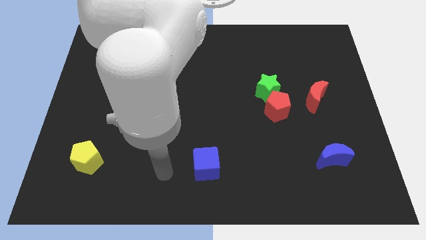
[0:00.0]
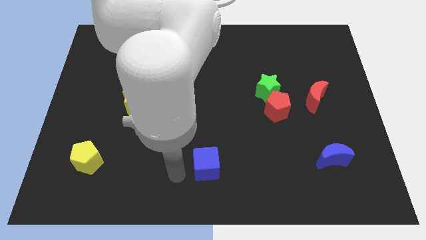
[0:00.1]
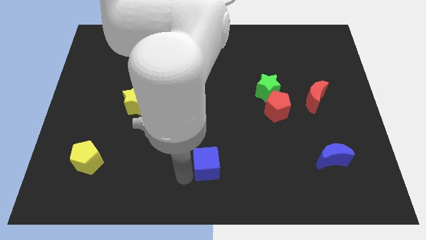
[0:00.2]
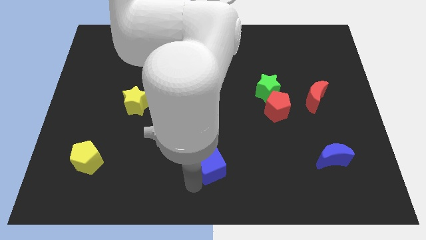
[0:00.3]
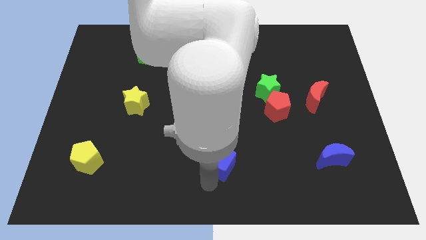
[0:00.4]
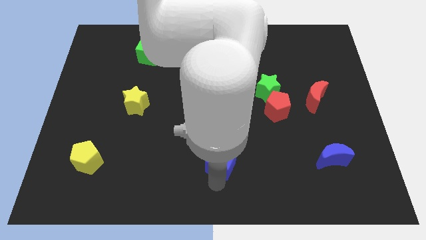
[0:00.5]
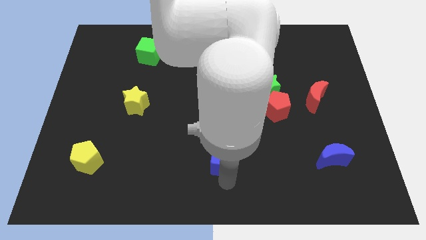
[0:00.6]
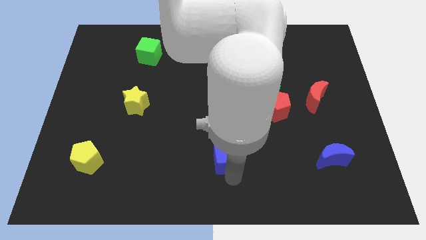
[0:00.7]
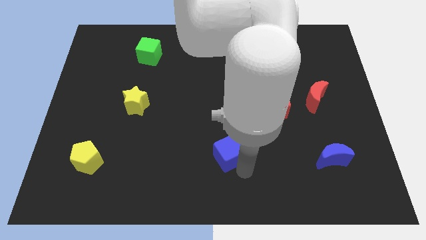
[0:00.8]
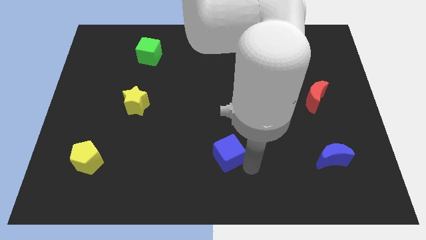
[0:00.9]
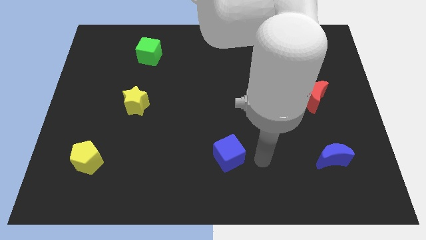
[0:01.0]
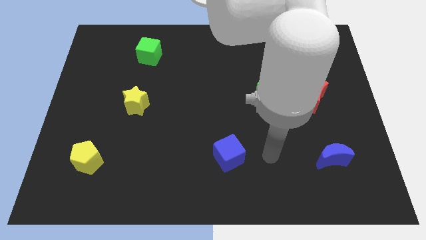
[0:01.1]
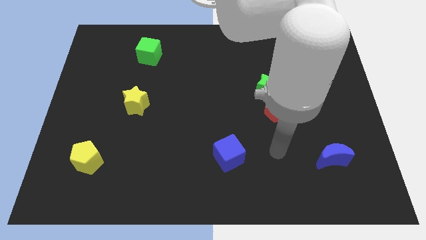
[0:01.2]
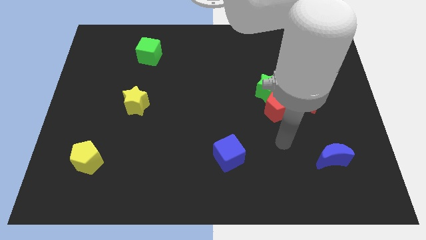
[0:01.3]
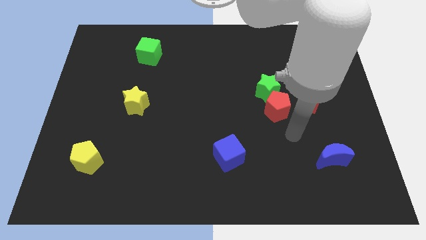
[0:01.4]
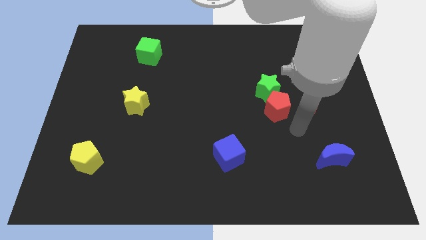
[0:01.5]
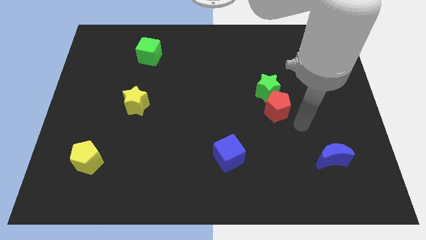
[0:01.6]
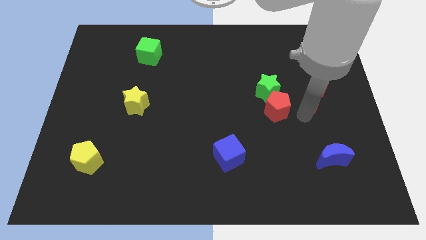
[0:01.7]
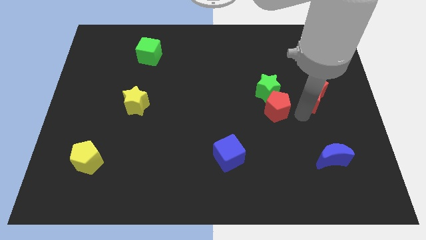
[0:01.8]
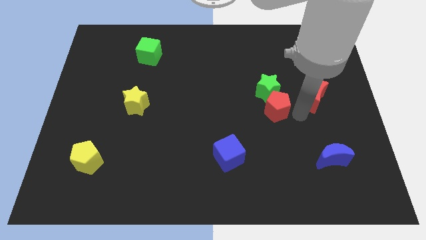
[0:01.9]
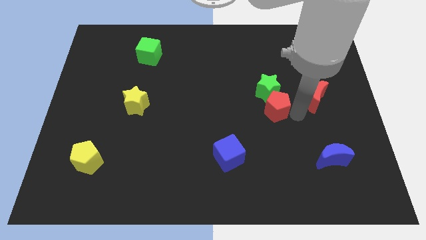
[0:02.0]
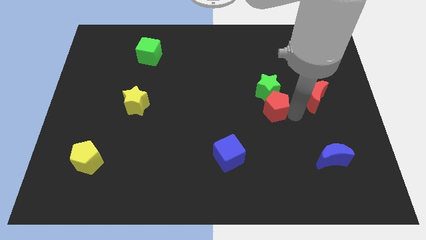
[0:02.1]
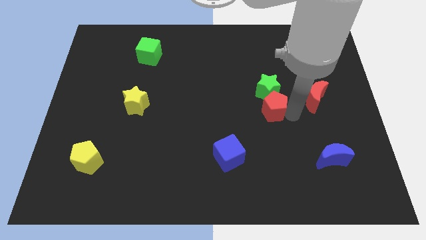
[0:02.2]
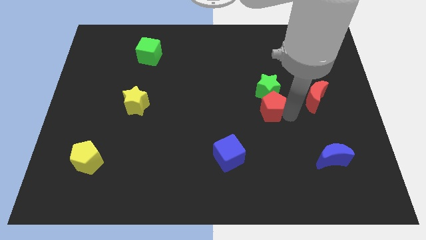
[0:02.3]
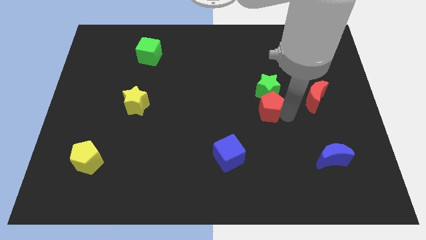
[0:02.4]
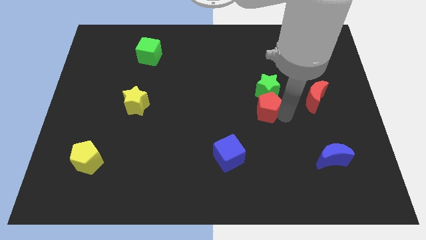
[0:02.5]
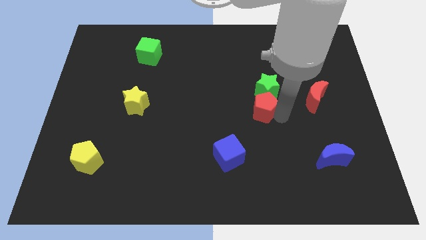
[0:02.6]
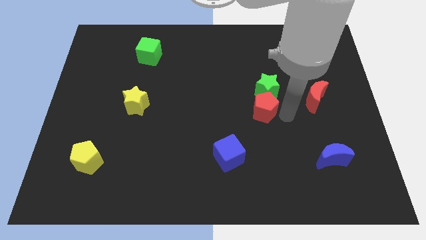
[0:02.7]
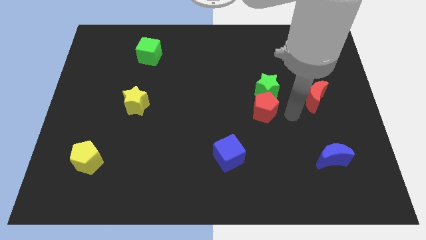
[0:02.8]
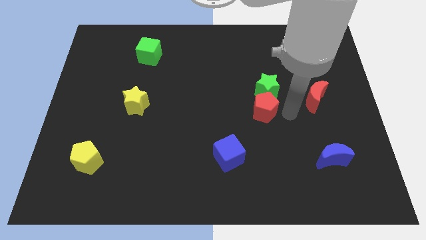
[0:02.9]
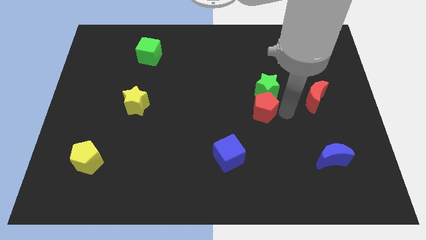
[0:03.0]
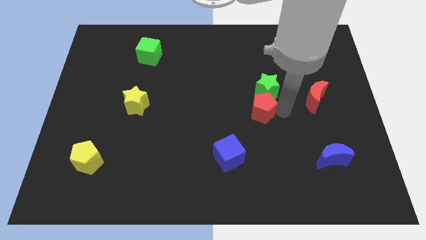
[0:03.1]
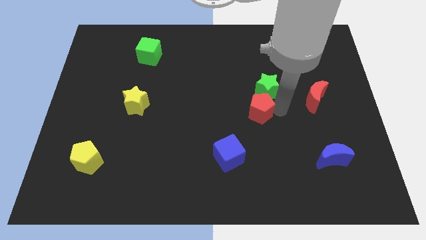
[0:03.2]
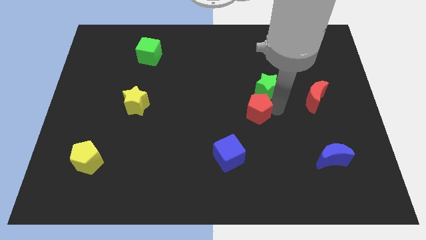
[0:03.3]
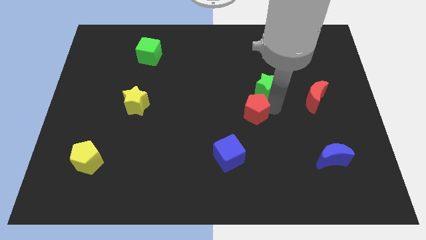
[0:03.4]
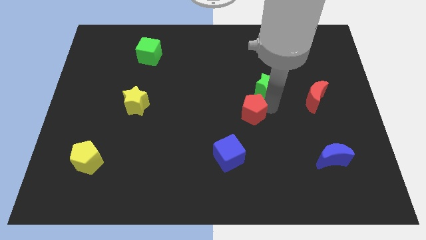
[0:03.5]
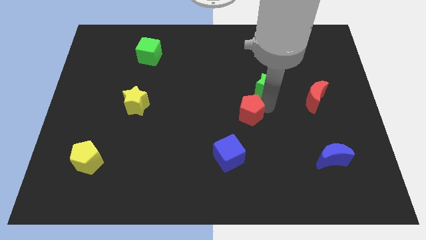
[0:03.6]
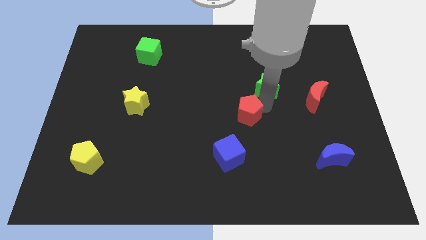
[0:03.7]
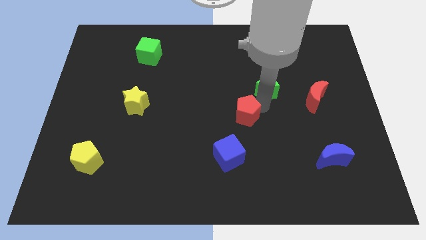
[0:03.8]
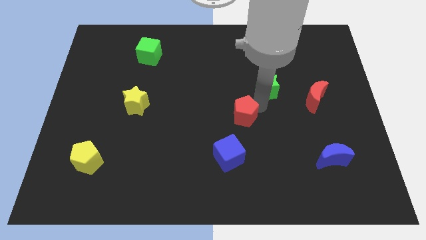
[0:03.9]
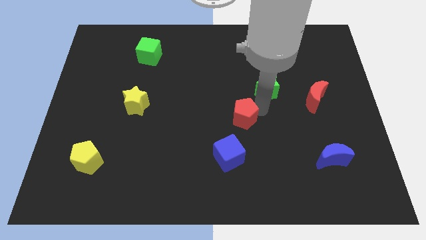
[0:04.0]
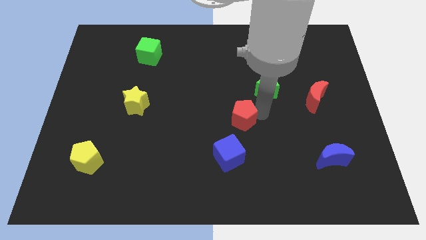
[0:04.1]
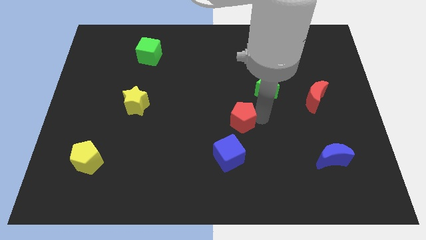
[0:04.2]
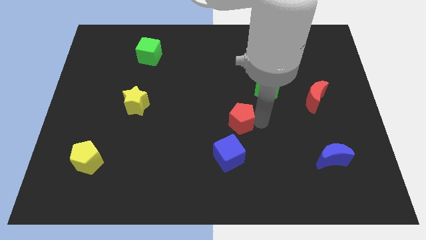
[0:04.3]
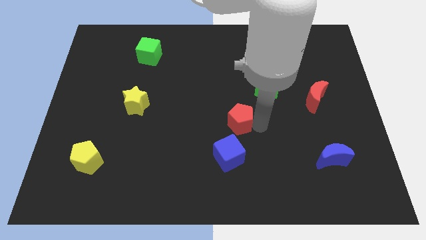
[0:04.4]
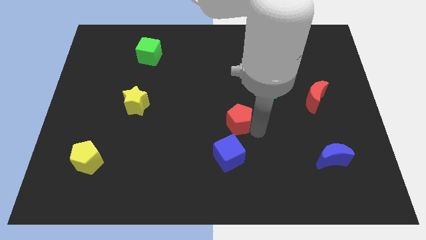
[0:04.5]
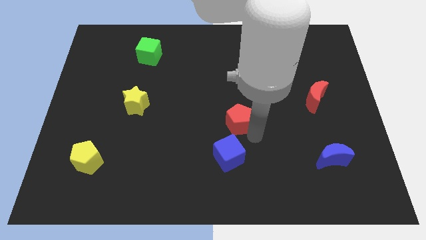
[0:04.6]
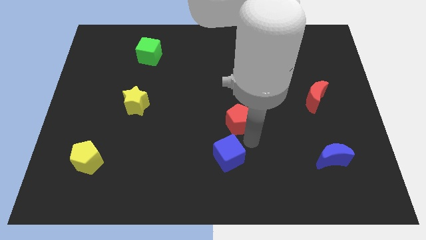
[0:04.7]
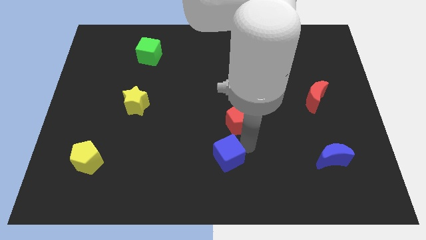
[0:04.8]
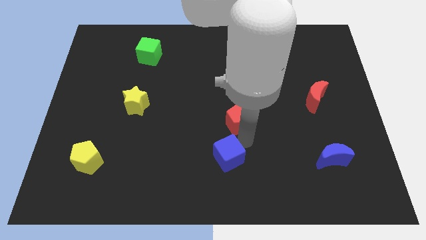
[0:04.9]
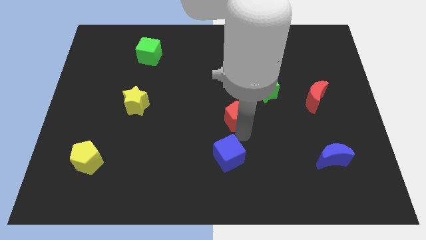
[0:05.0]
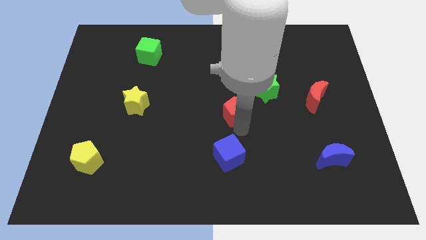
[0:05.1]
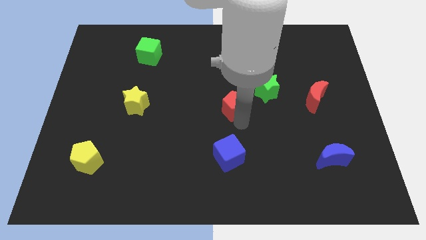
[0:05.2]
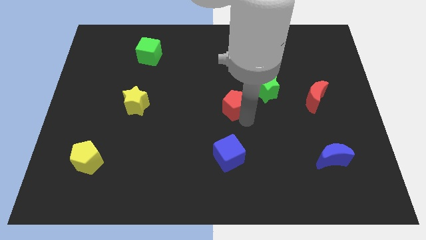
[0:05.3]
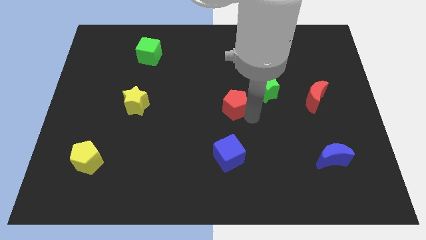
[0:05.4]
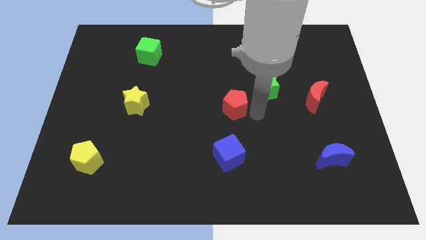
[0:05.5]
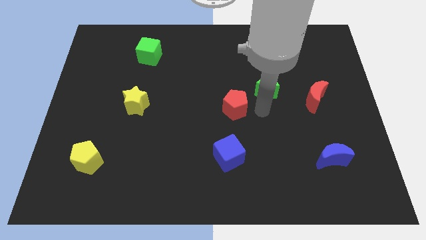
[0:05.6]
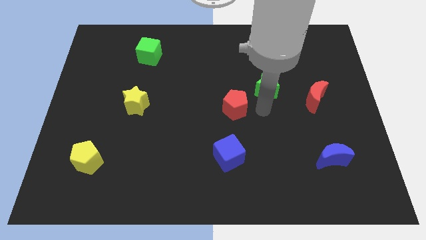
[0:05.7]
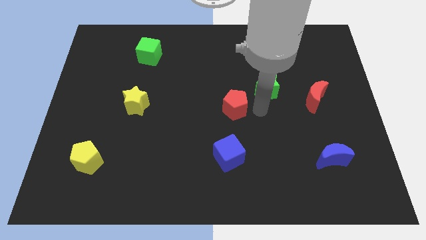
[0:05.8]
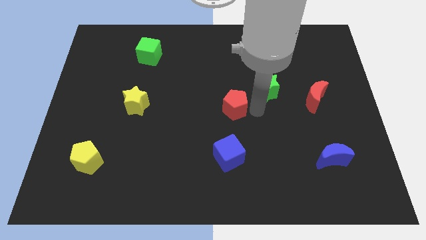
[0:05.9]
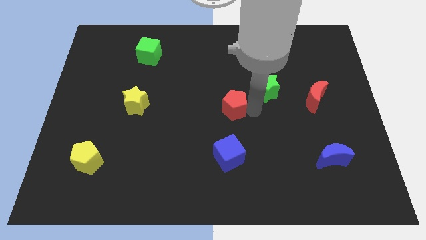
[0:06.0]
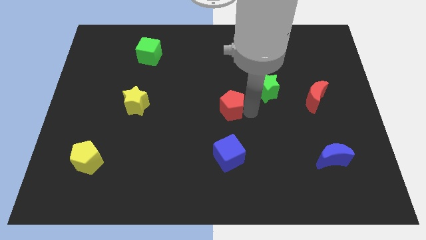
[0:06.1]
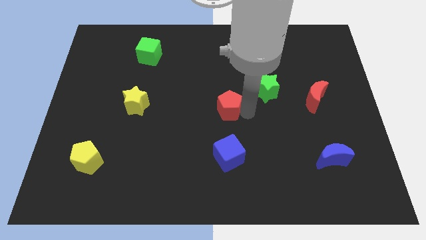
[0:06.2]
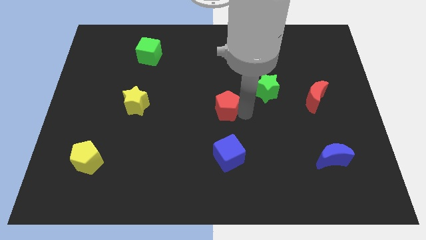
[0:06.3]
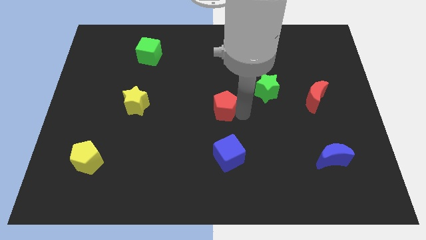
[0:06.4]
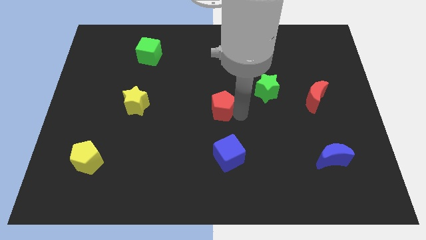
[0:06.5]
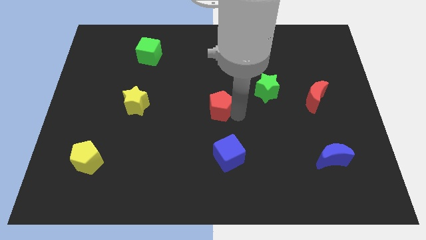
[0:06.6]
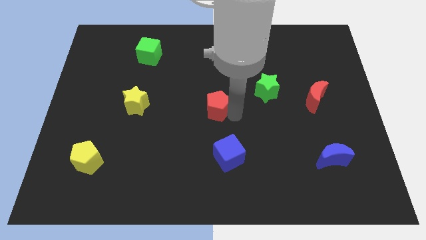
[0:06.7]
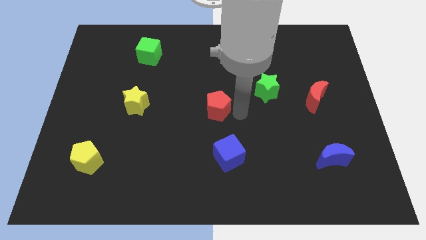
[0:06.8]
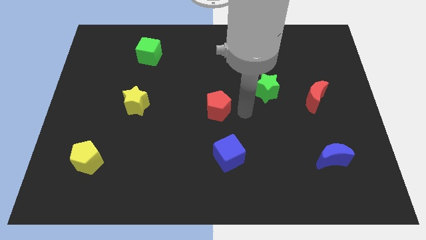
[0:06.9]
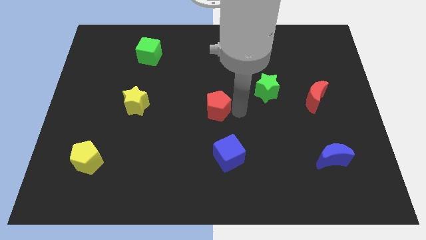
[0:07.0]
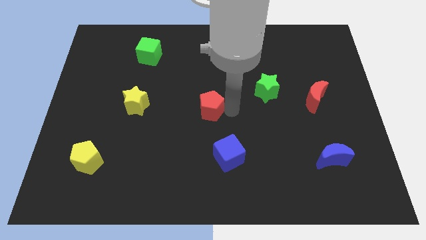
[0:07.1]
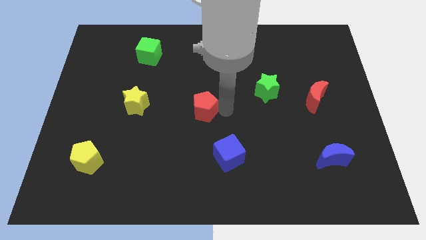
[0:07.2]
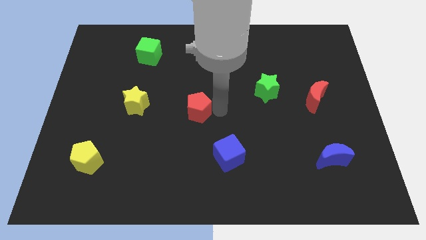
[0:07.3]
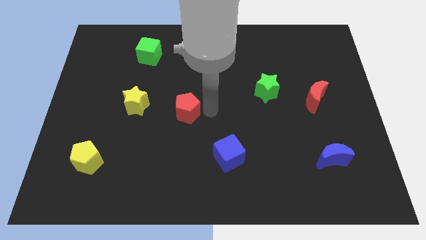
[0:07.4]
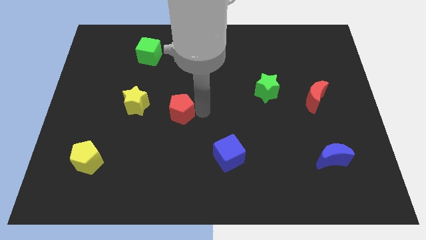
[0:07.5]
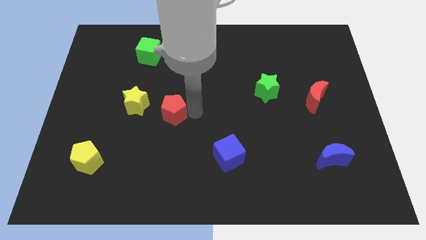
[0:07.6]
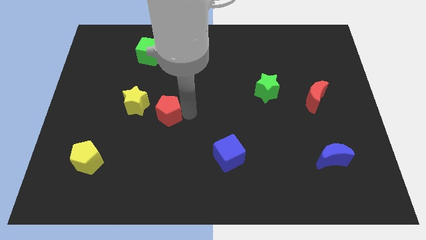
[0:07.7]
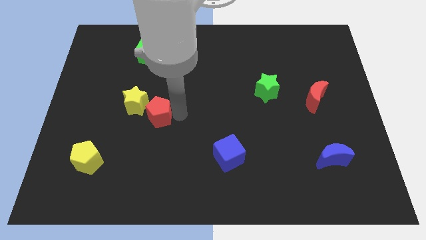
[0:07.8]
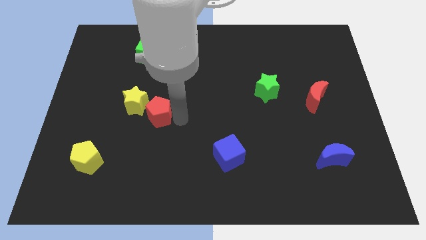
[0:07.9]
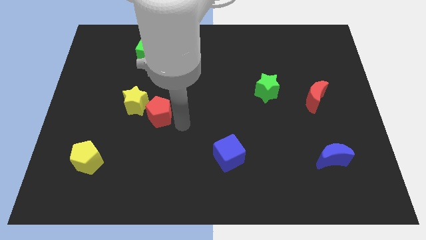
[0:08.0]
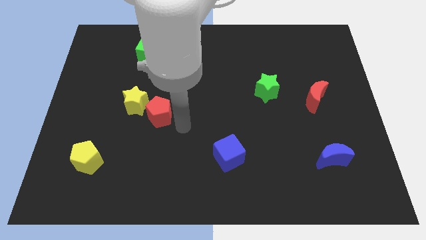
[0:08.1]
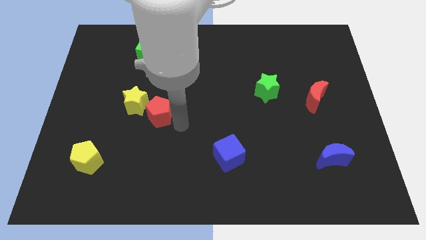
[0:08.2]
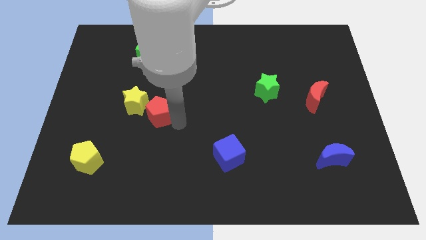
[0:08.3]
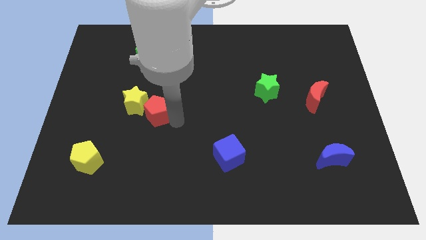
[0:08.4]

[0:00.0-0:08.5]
put the red pentagon next to the yellow star
